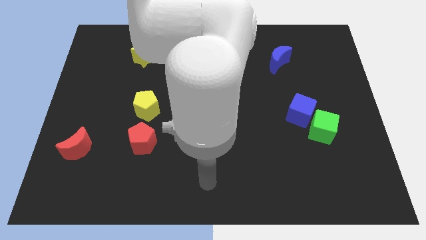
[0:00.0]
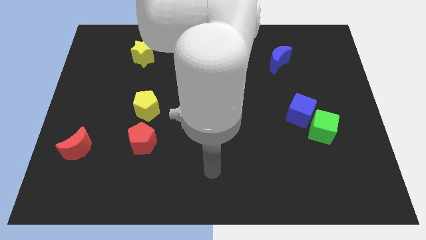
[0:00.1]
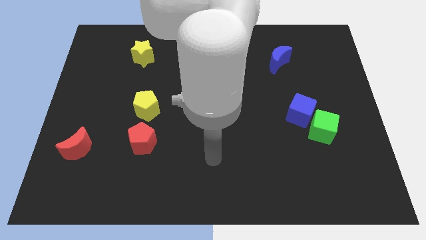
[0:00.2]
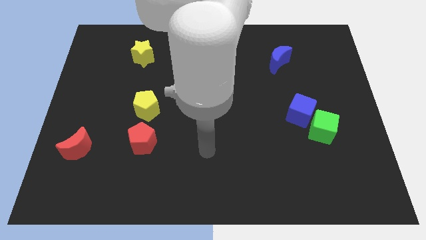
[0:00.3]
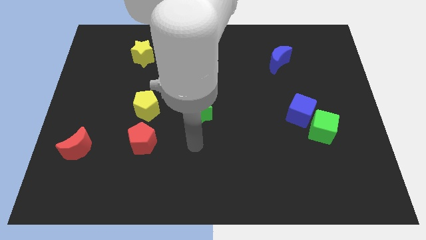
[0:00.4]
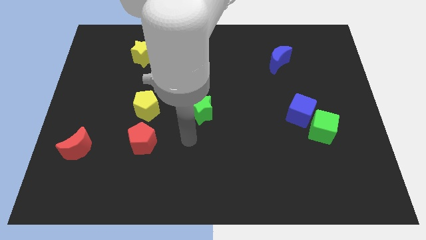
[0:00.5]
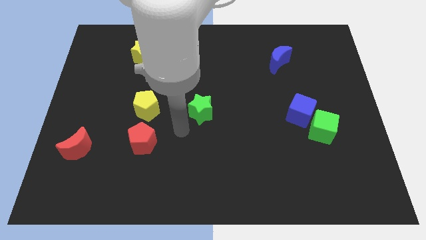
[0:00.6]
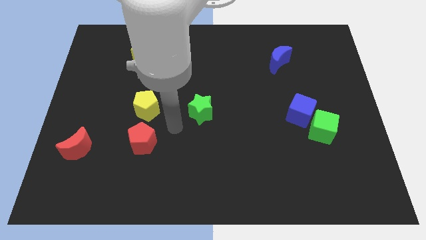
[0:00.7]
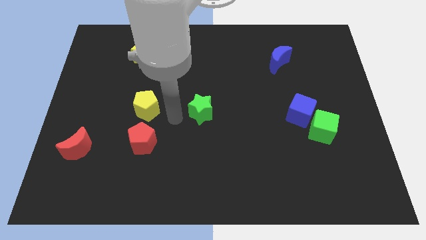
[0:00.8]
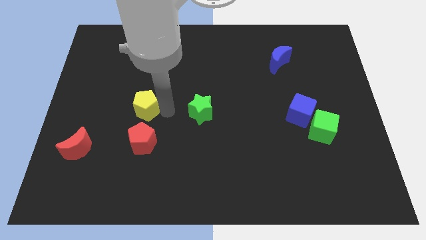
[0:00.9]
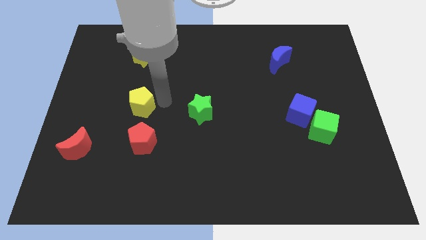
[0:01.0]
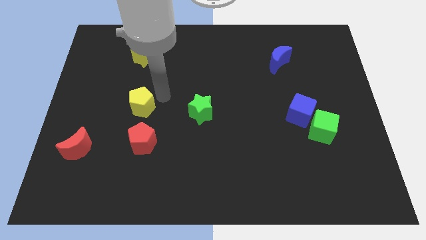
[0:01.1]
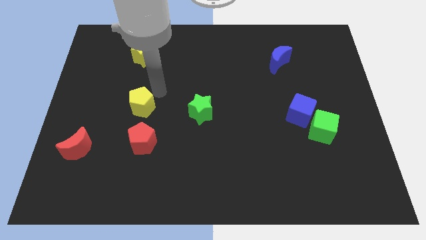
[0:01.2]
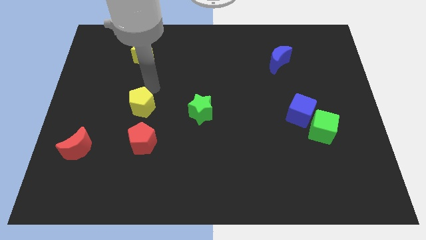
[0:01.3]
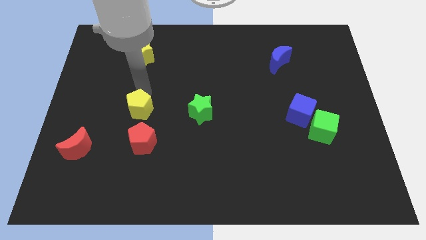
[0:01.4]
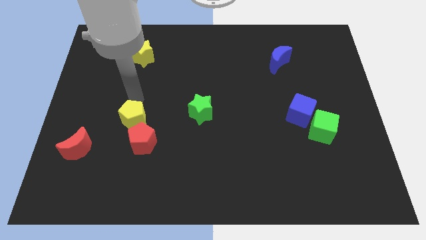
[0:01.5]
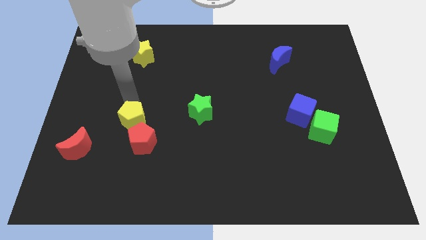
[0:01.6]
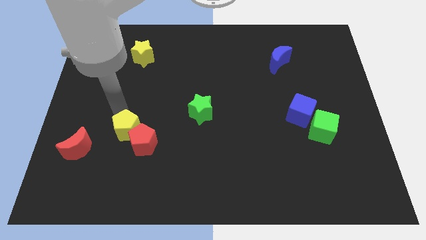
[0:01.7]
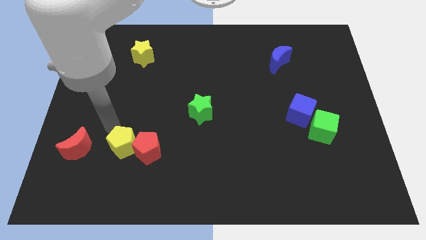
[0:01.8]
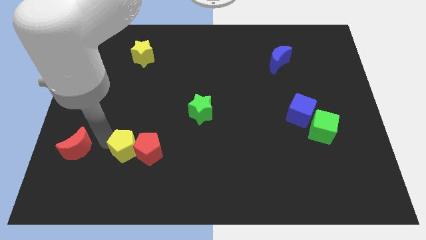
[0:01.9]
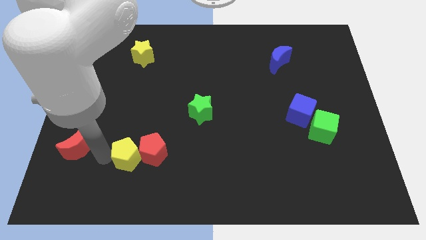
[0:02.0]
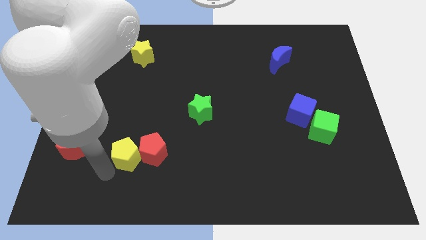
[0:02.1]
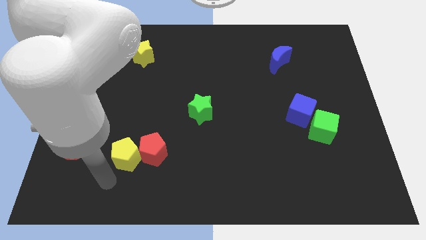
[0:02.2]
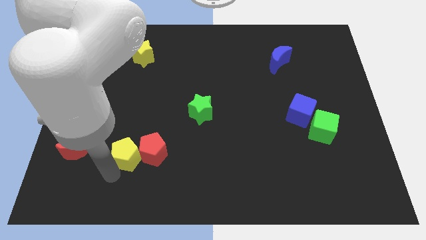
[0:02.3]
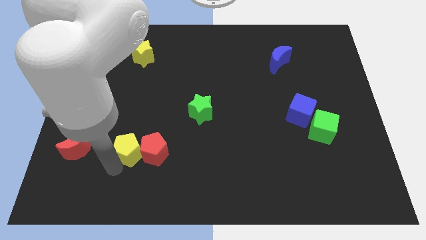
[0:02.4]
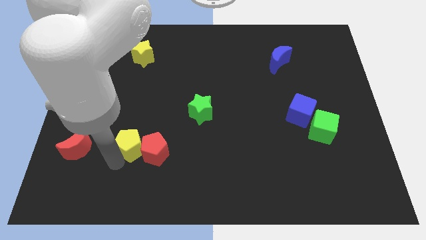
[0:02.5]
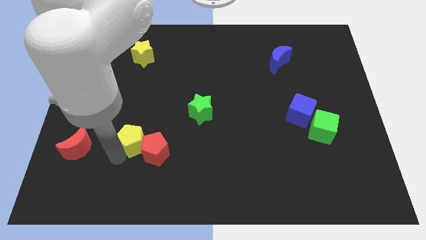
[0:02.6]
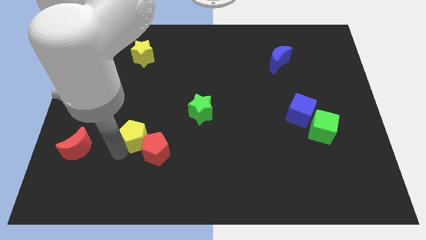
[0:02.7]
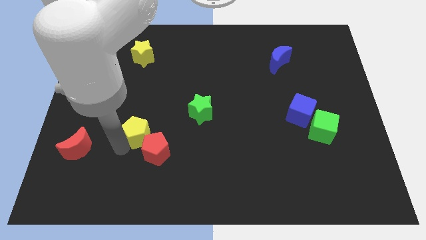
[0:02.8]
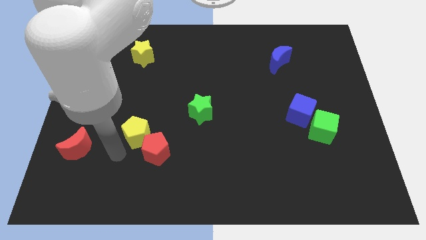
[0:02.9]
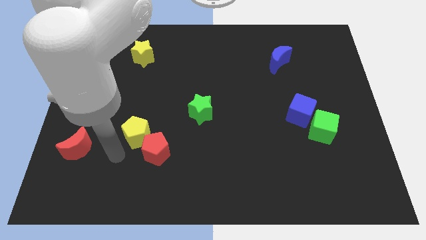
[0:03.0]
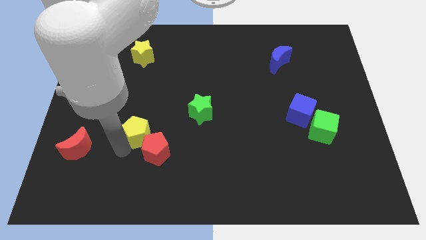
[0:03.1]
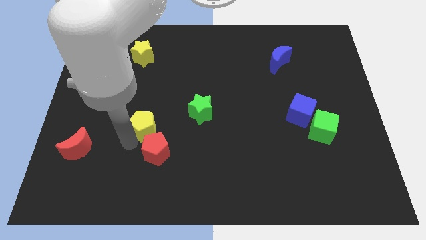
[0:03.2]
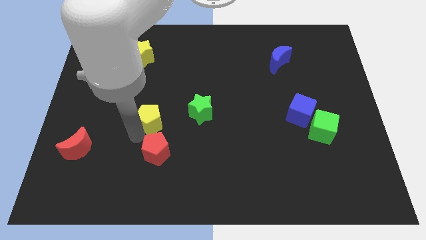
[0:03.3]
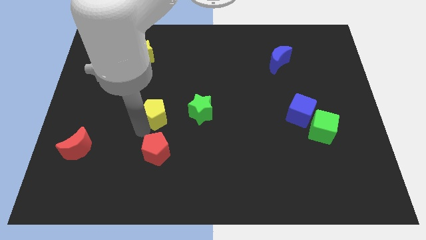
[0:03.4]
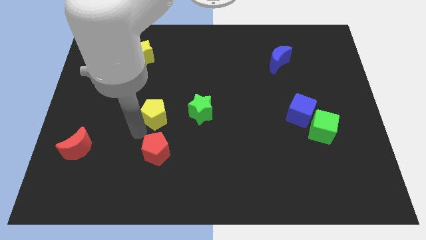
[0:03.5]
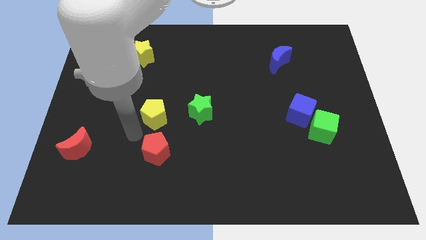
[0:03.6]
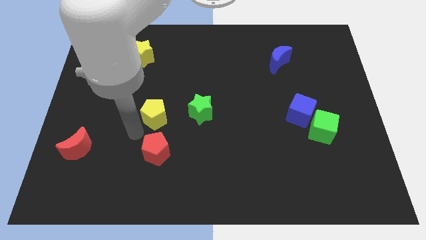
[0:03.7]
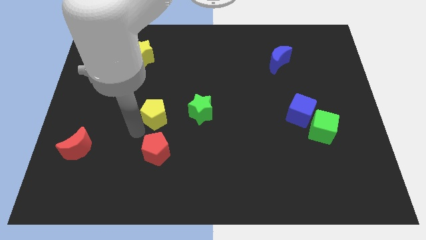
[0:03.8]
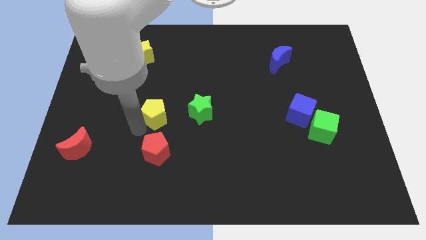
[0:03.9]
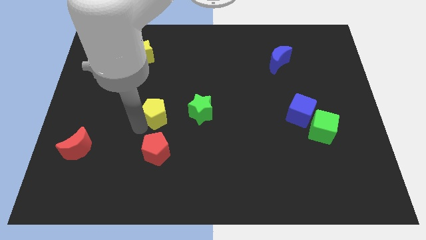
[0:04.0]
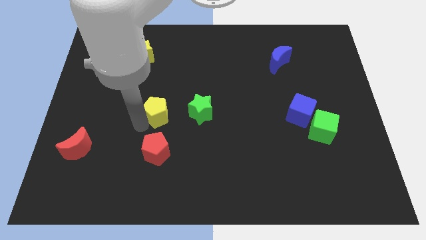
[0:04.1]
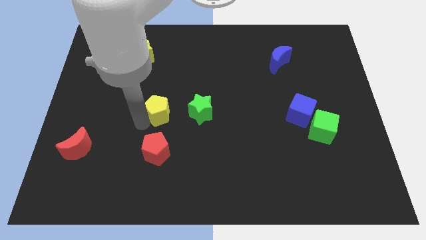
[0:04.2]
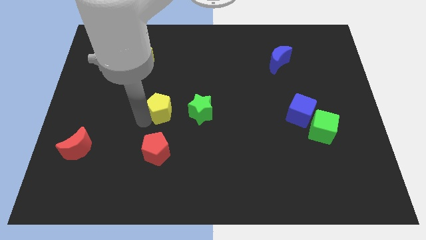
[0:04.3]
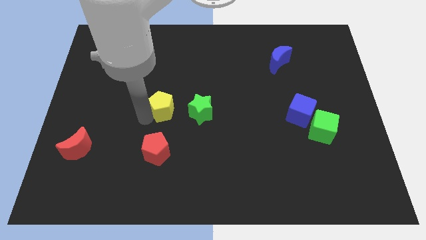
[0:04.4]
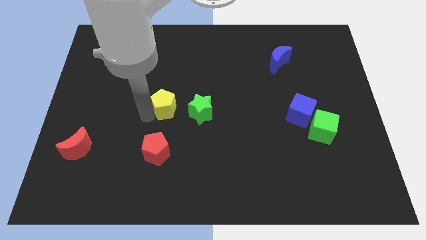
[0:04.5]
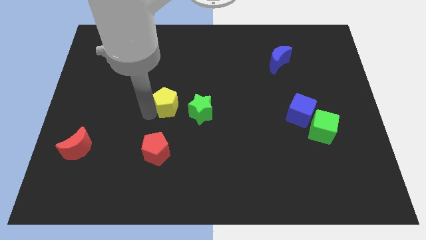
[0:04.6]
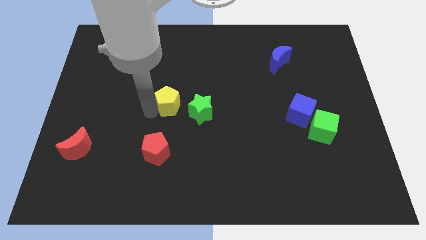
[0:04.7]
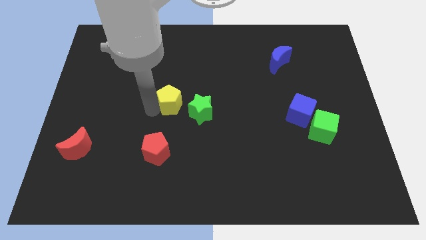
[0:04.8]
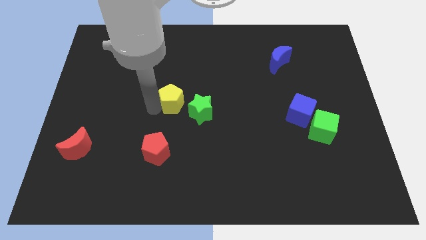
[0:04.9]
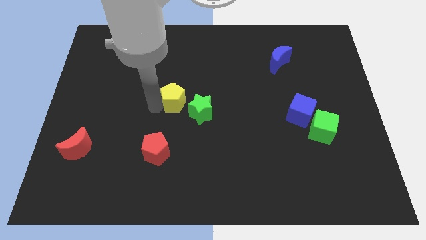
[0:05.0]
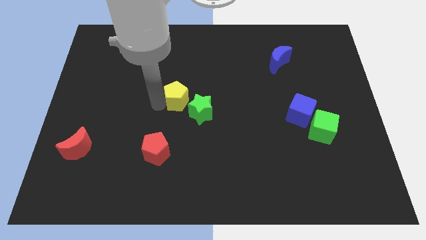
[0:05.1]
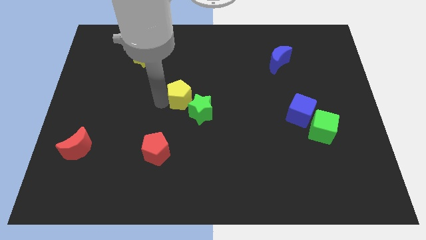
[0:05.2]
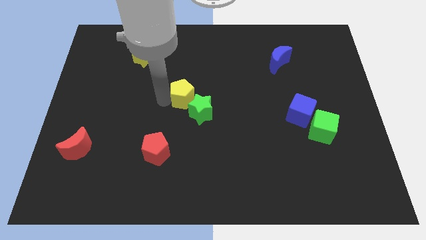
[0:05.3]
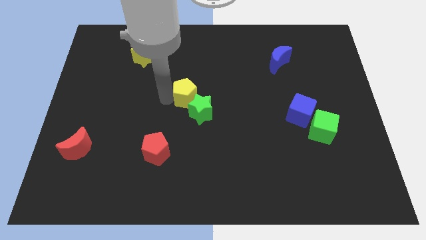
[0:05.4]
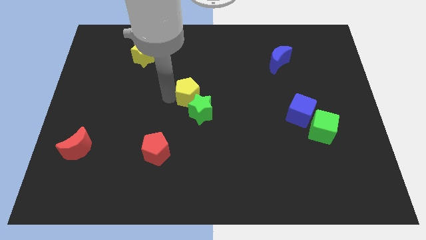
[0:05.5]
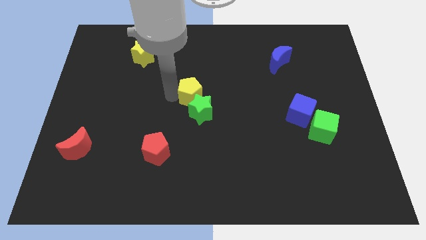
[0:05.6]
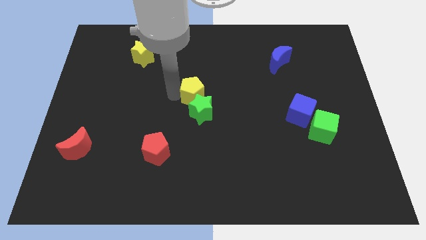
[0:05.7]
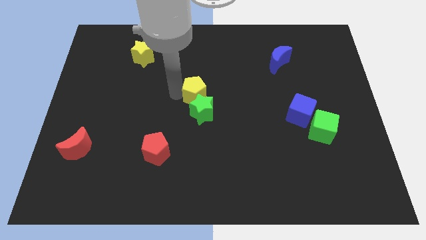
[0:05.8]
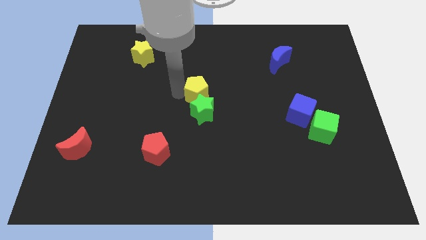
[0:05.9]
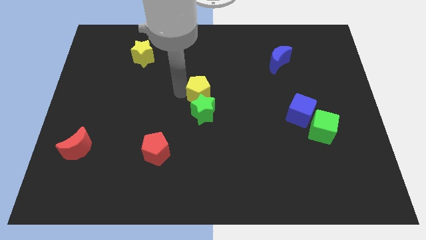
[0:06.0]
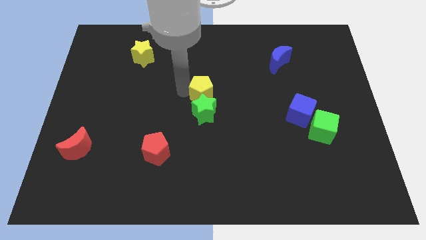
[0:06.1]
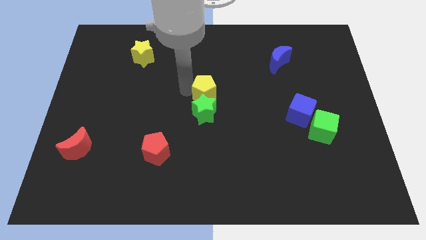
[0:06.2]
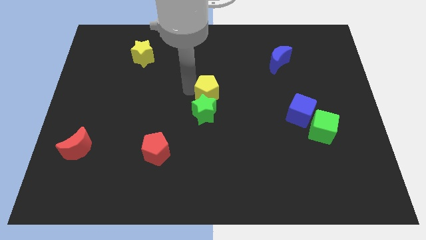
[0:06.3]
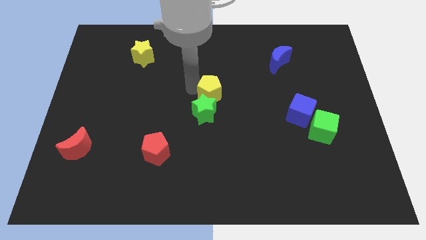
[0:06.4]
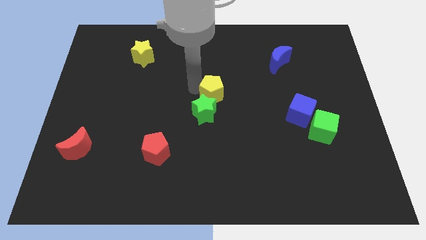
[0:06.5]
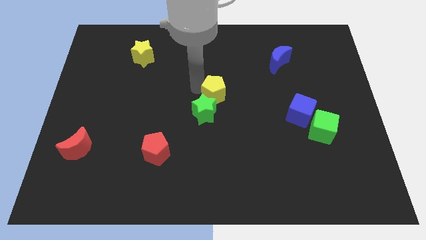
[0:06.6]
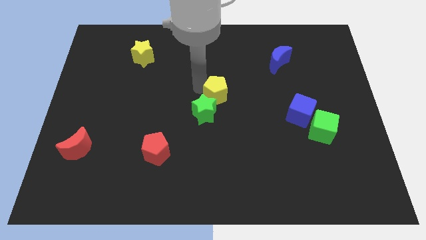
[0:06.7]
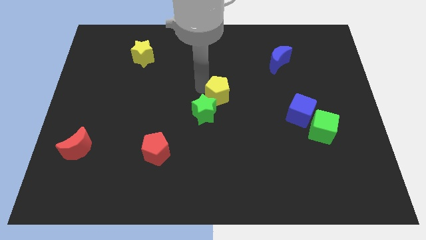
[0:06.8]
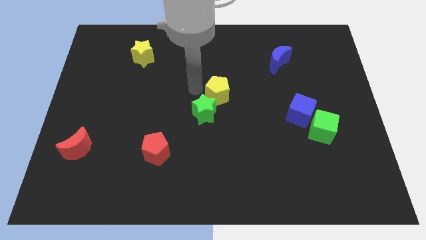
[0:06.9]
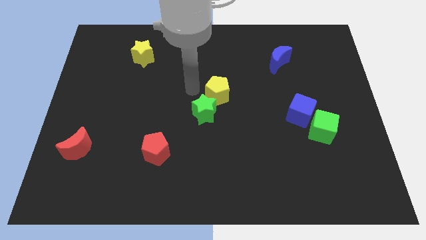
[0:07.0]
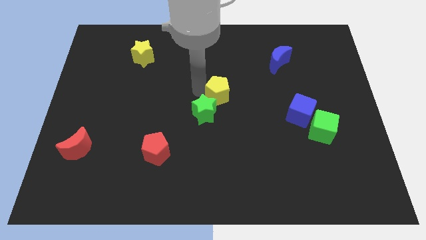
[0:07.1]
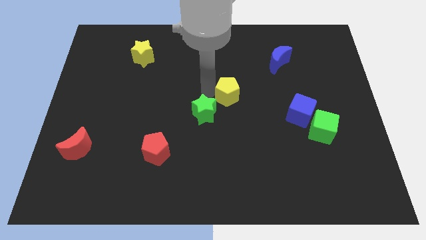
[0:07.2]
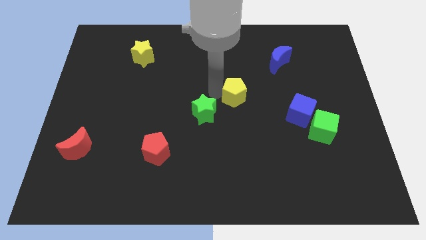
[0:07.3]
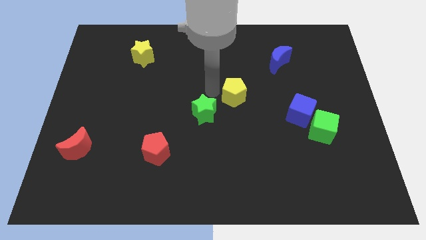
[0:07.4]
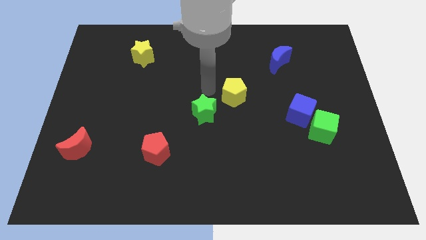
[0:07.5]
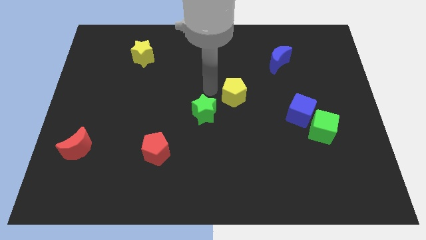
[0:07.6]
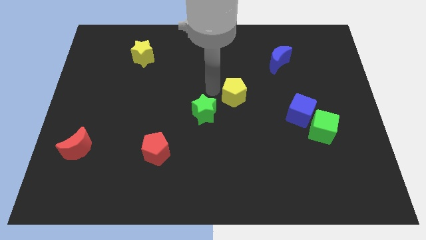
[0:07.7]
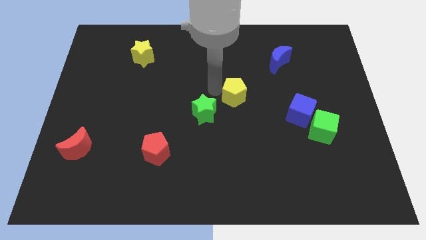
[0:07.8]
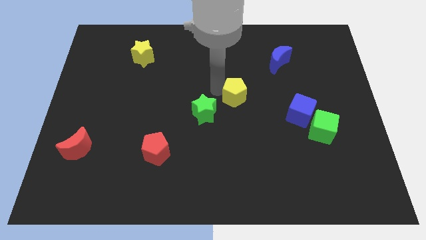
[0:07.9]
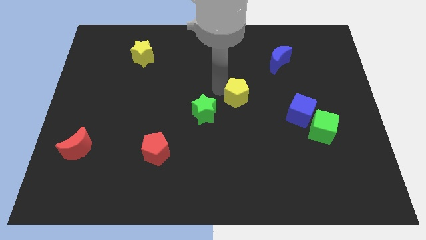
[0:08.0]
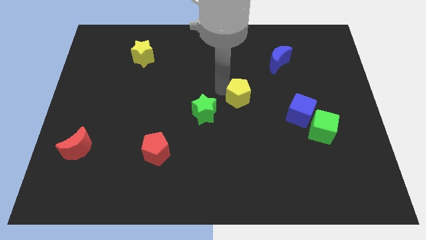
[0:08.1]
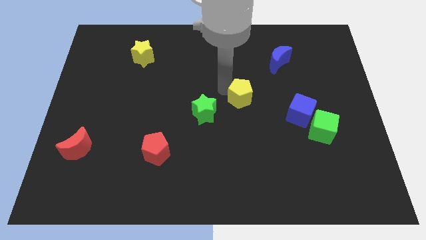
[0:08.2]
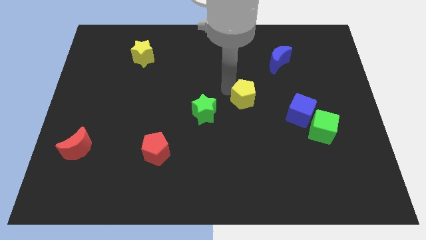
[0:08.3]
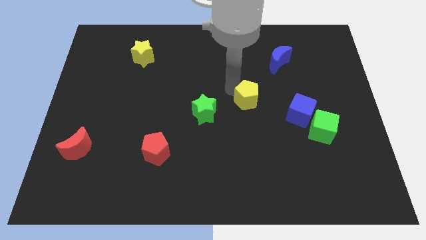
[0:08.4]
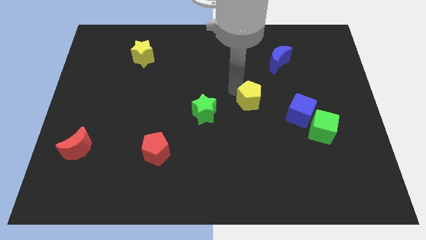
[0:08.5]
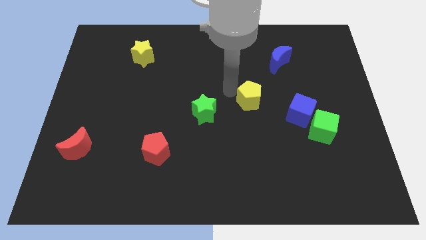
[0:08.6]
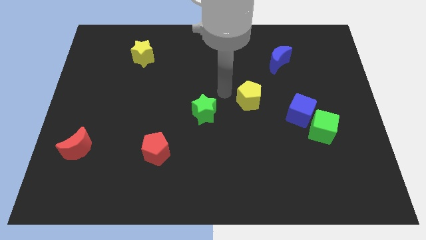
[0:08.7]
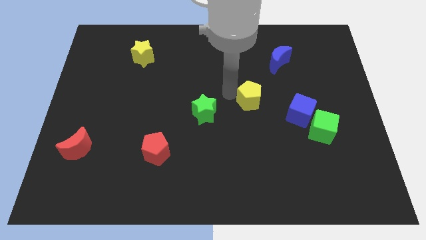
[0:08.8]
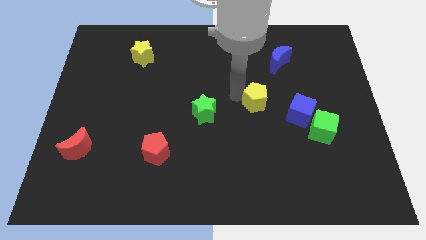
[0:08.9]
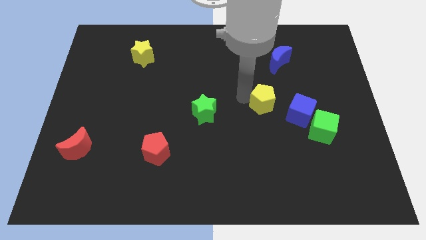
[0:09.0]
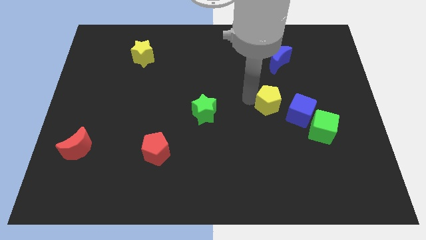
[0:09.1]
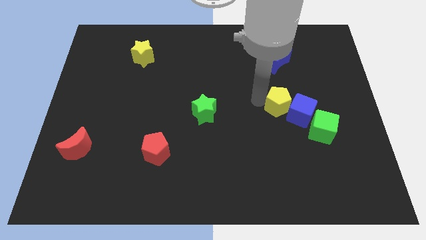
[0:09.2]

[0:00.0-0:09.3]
slide the yellow pentagon next to the blue cube
